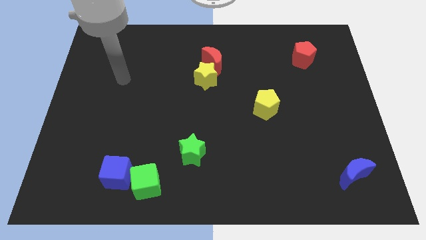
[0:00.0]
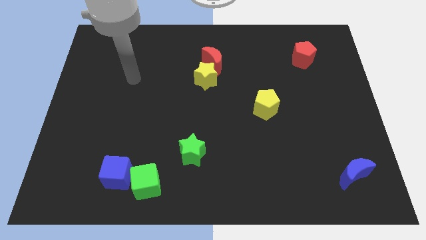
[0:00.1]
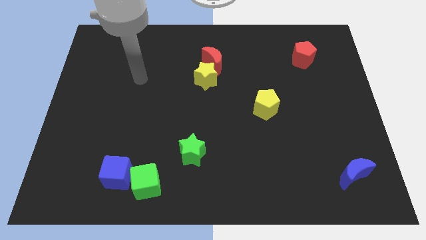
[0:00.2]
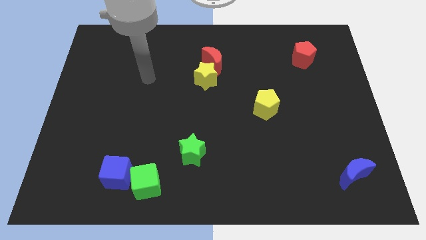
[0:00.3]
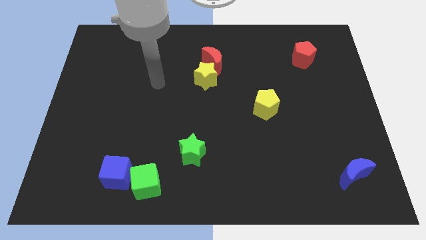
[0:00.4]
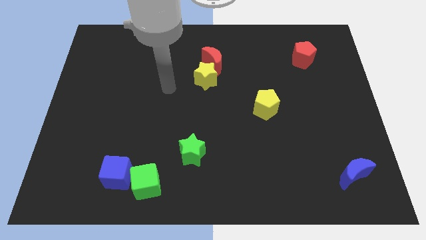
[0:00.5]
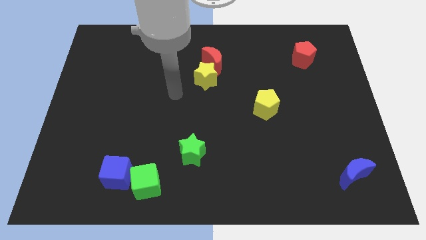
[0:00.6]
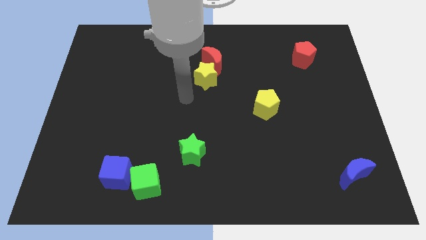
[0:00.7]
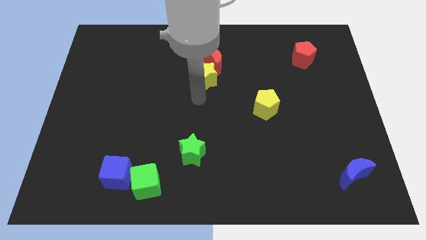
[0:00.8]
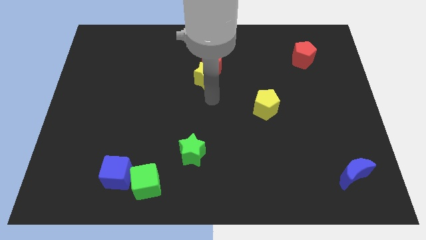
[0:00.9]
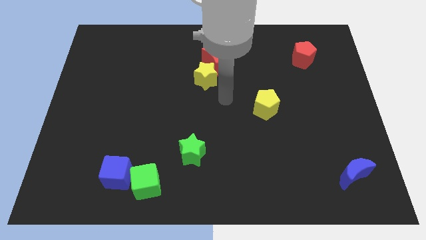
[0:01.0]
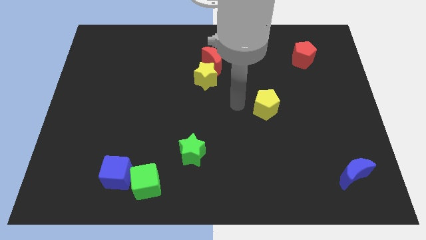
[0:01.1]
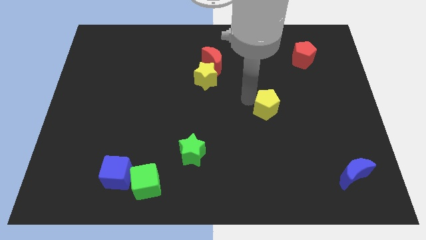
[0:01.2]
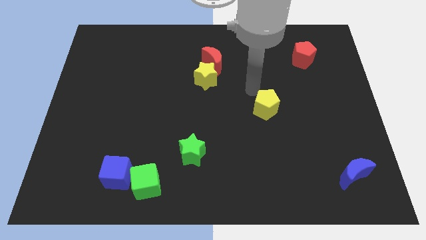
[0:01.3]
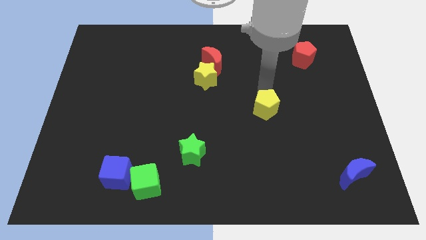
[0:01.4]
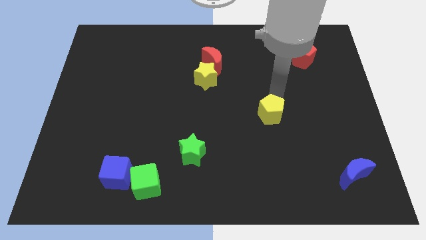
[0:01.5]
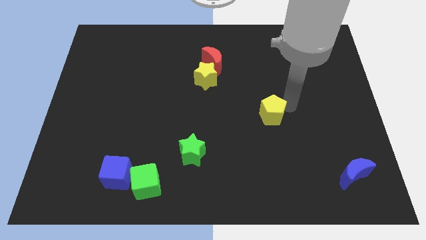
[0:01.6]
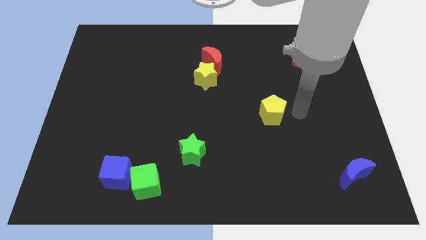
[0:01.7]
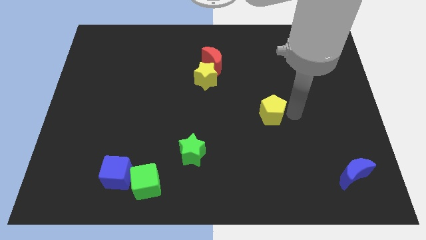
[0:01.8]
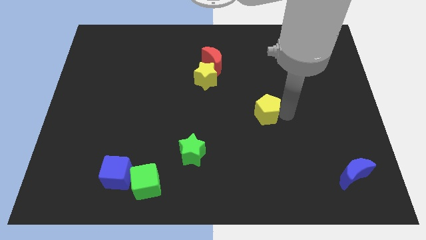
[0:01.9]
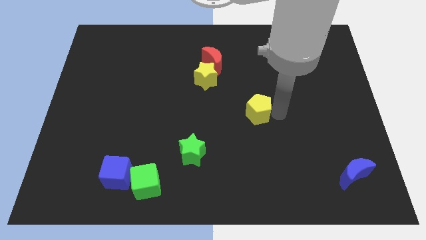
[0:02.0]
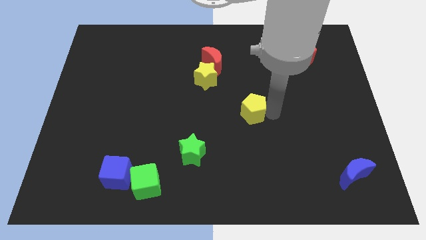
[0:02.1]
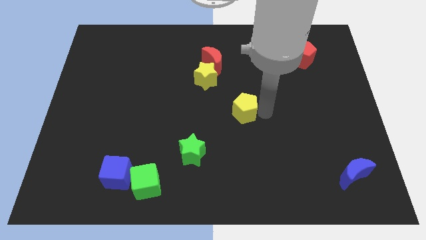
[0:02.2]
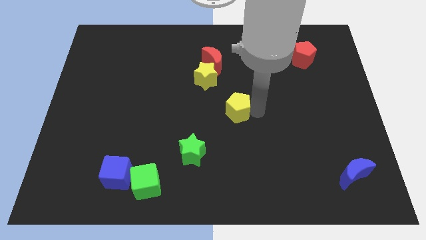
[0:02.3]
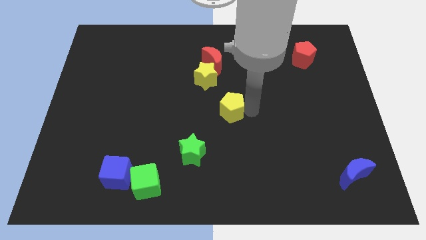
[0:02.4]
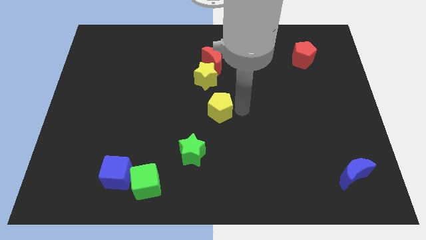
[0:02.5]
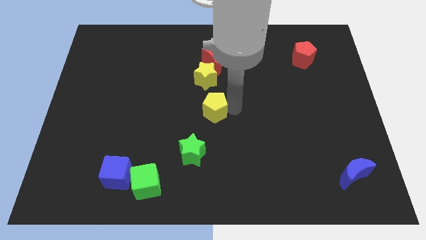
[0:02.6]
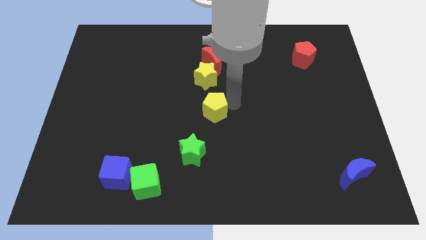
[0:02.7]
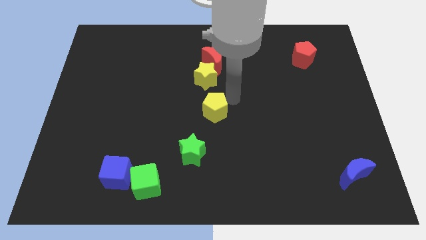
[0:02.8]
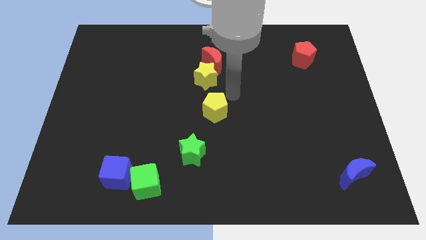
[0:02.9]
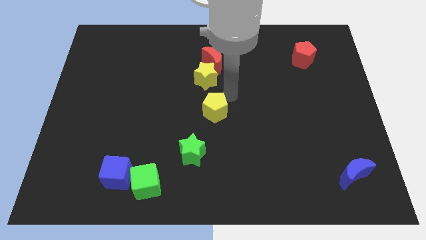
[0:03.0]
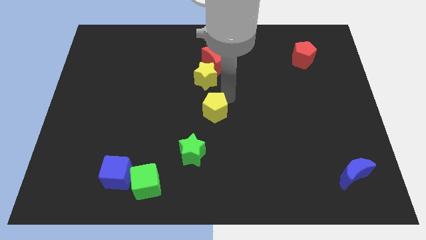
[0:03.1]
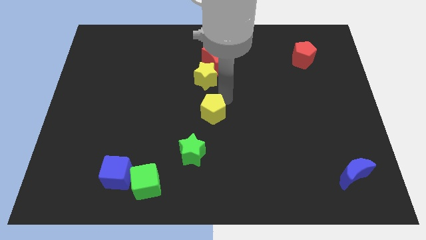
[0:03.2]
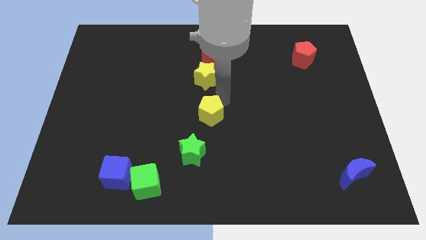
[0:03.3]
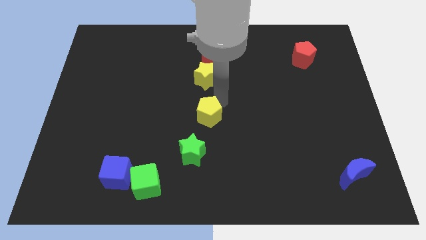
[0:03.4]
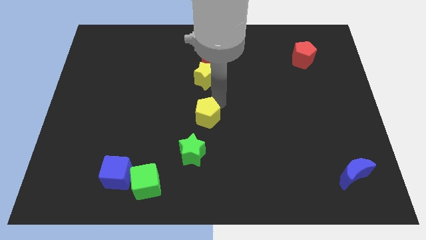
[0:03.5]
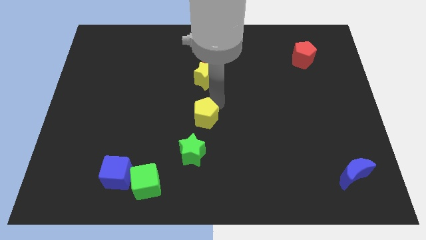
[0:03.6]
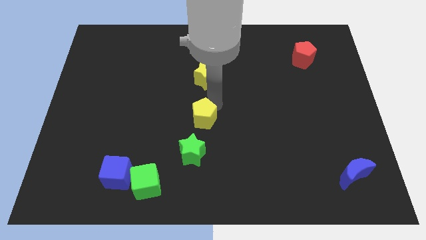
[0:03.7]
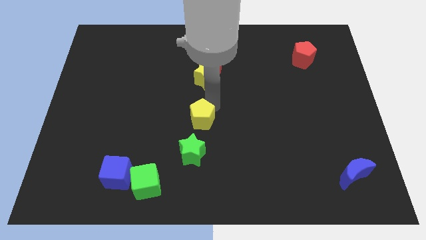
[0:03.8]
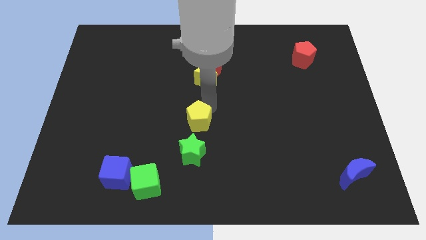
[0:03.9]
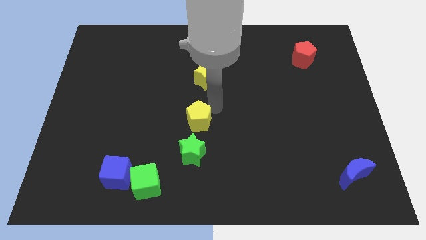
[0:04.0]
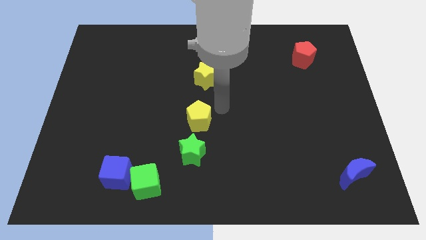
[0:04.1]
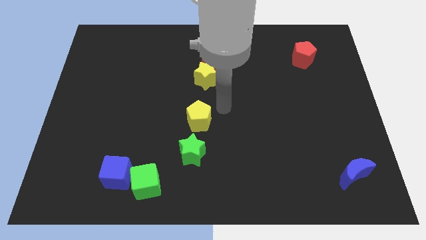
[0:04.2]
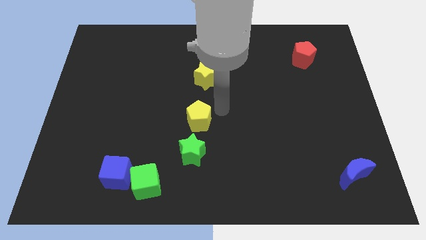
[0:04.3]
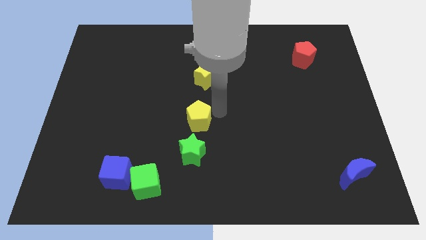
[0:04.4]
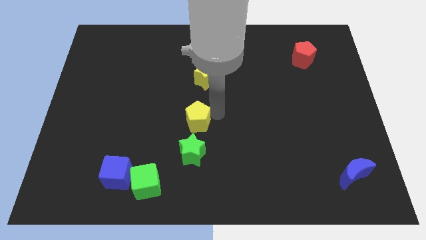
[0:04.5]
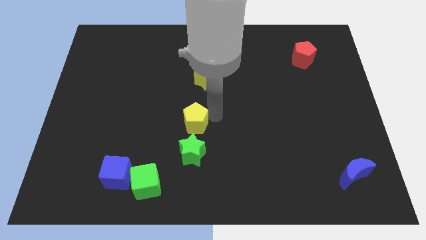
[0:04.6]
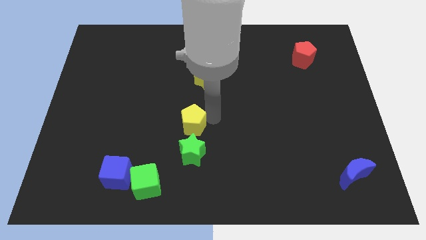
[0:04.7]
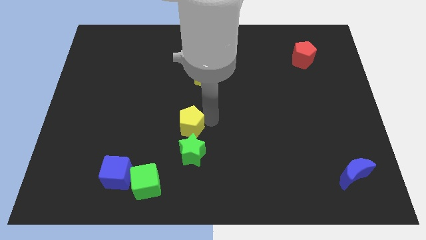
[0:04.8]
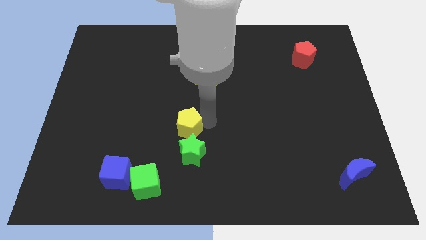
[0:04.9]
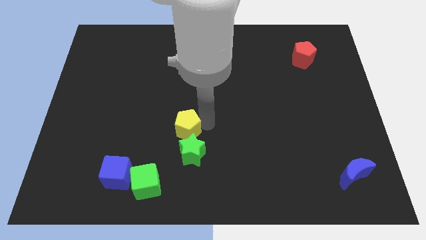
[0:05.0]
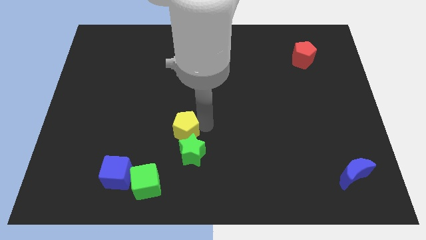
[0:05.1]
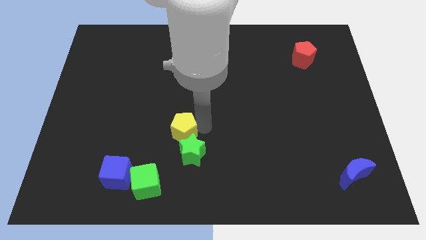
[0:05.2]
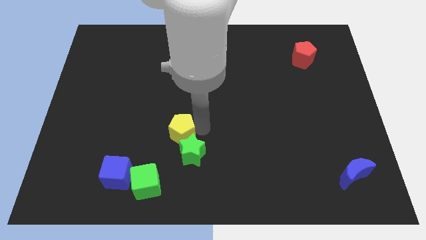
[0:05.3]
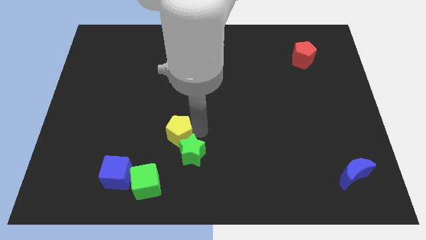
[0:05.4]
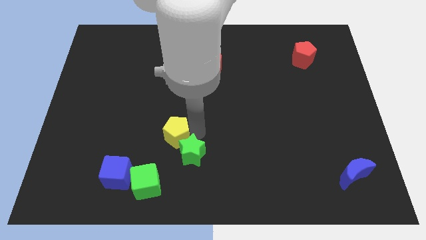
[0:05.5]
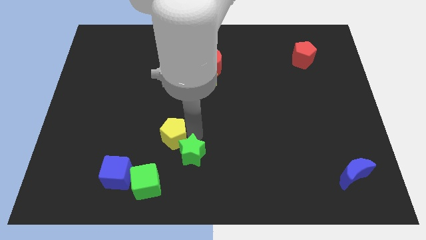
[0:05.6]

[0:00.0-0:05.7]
move the yellow pentagon above the green cube
